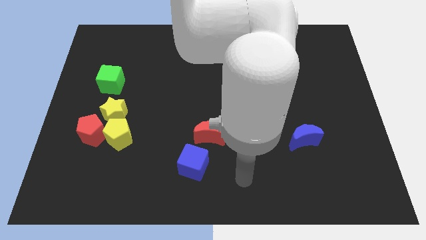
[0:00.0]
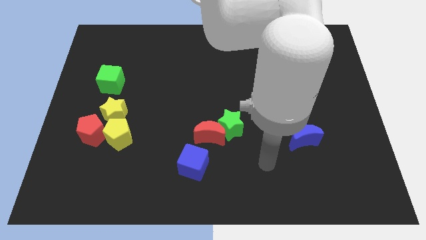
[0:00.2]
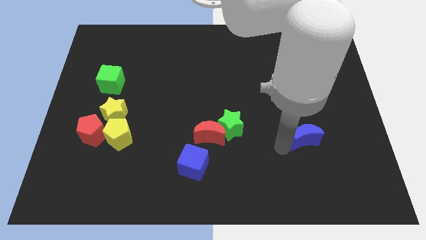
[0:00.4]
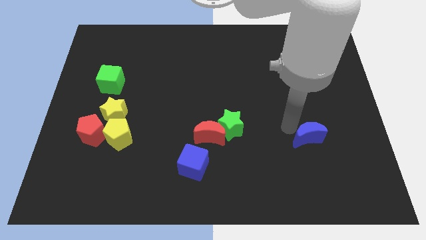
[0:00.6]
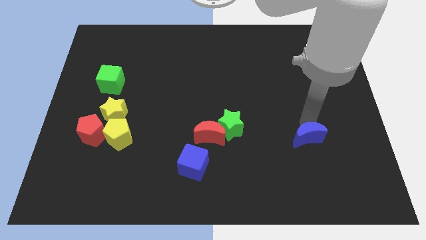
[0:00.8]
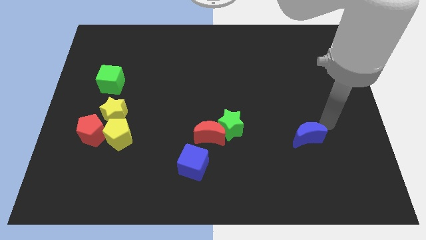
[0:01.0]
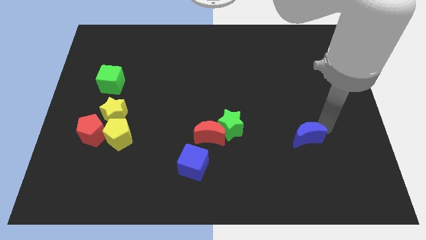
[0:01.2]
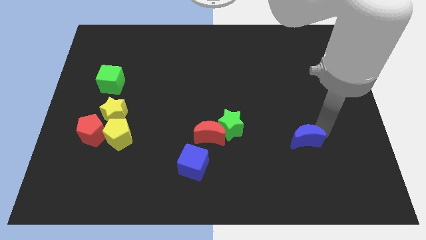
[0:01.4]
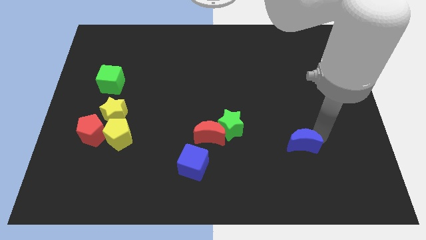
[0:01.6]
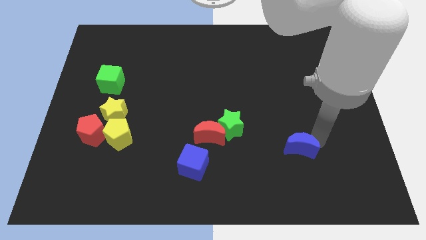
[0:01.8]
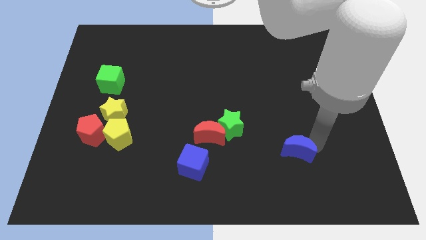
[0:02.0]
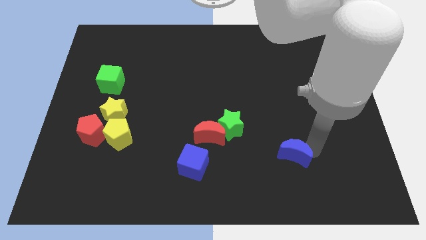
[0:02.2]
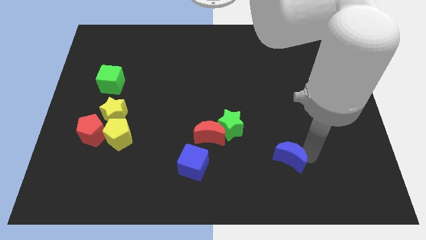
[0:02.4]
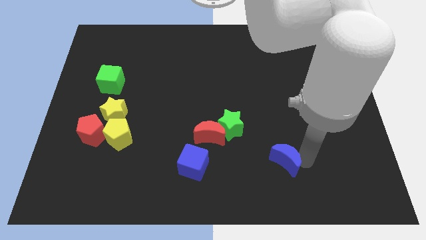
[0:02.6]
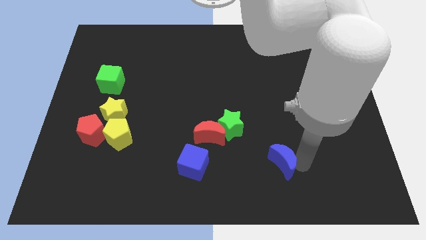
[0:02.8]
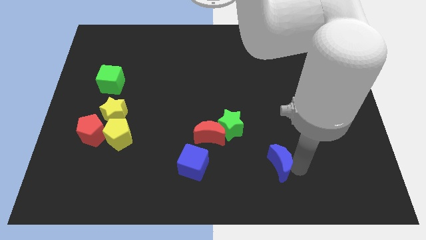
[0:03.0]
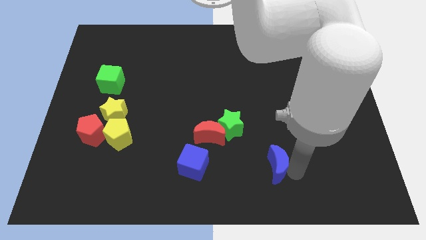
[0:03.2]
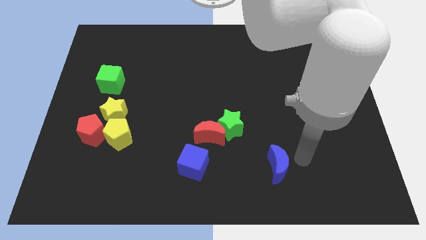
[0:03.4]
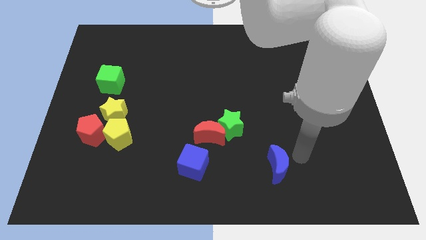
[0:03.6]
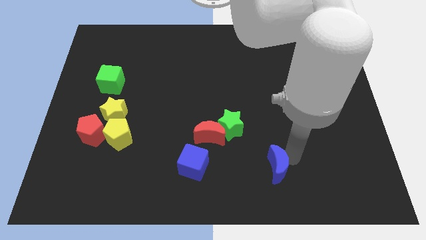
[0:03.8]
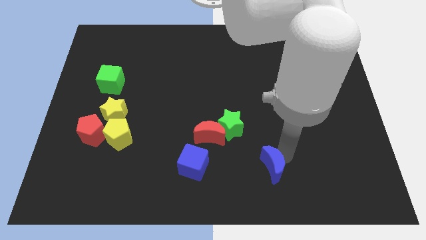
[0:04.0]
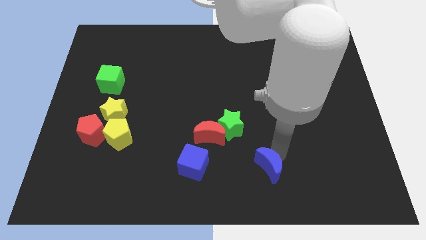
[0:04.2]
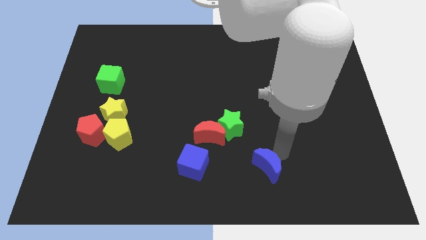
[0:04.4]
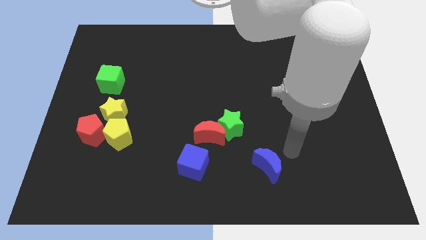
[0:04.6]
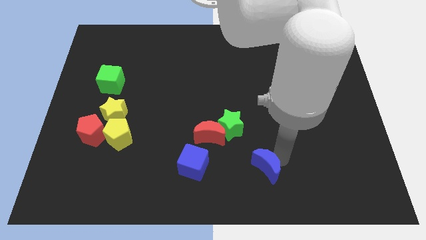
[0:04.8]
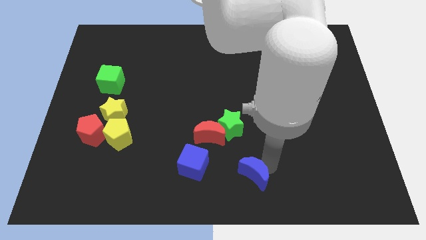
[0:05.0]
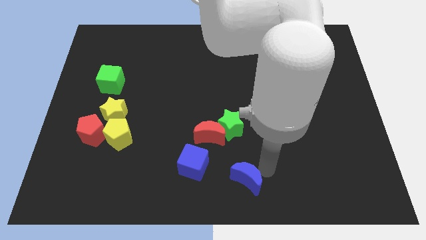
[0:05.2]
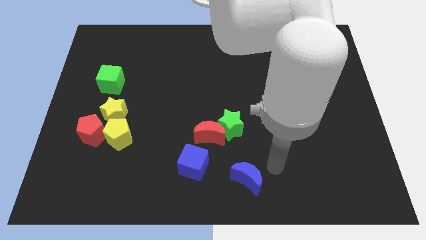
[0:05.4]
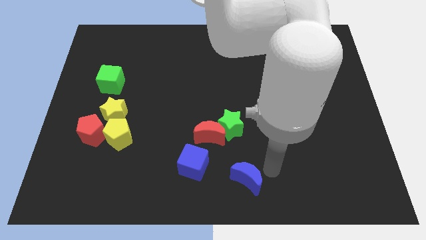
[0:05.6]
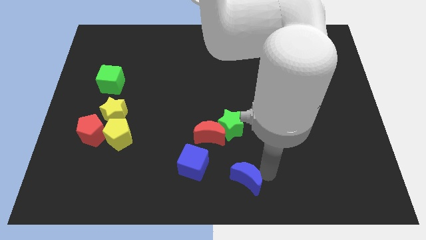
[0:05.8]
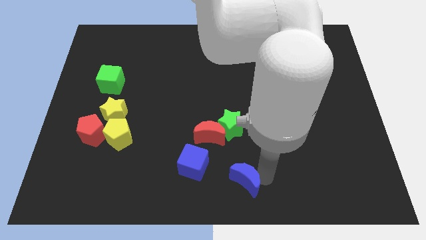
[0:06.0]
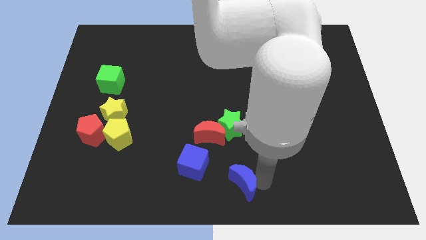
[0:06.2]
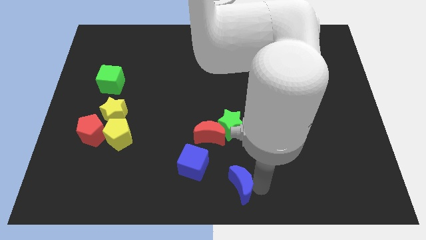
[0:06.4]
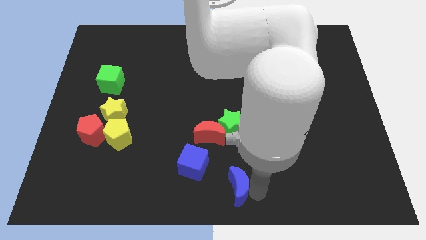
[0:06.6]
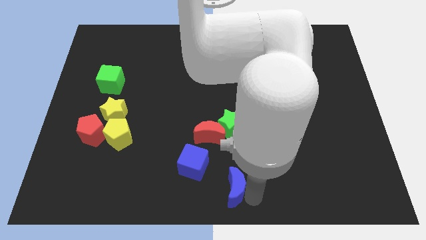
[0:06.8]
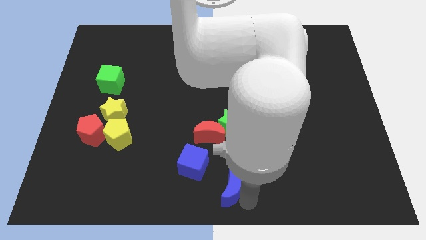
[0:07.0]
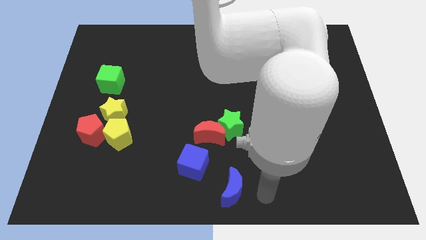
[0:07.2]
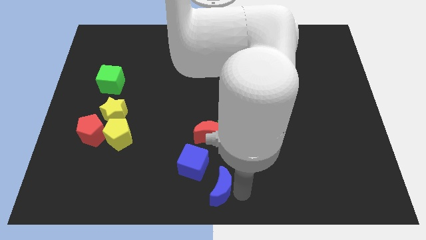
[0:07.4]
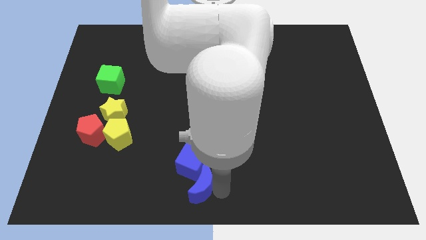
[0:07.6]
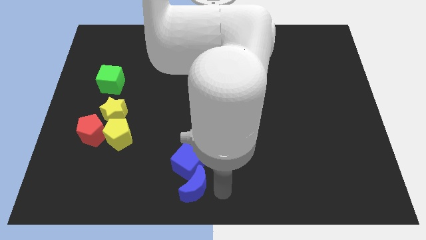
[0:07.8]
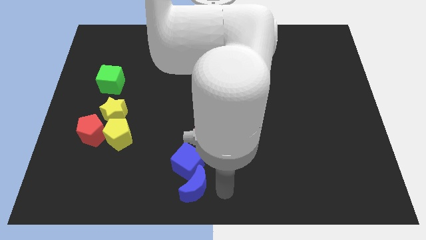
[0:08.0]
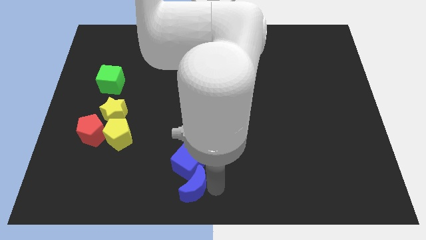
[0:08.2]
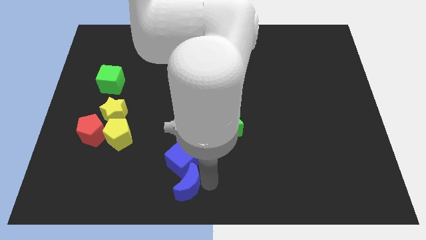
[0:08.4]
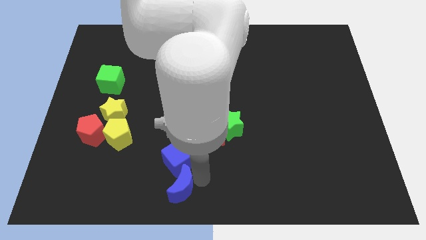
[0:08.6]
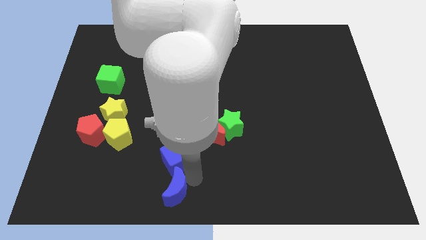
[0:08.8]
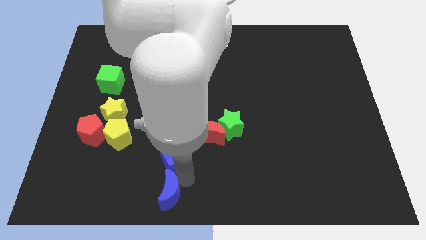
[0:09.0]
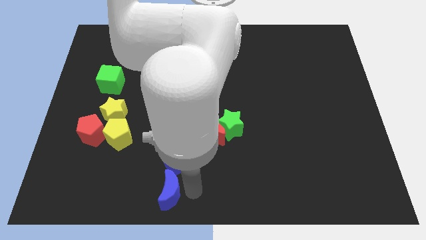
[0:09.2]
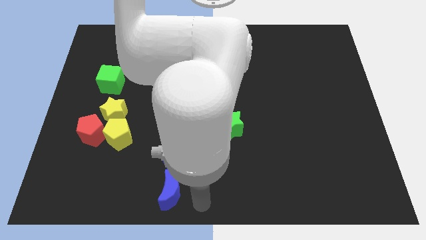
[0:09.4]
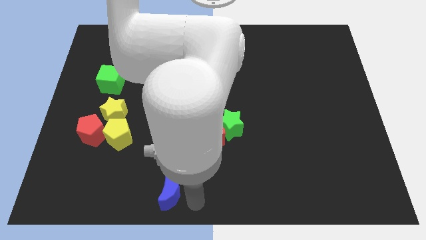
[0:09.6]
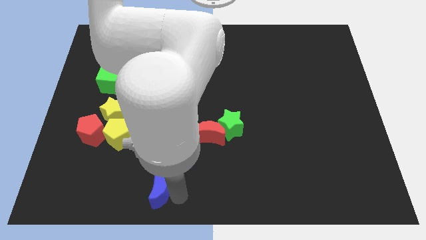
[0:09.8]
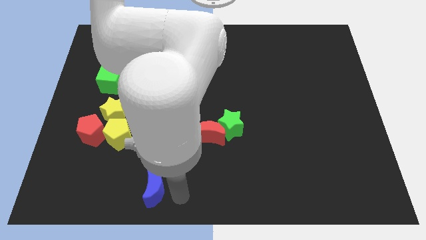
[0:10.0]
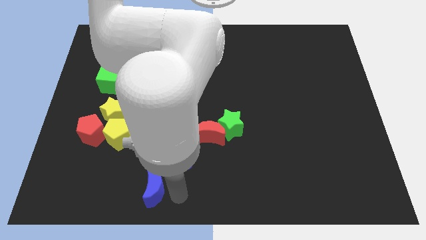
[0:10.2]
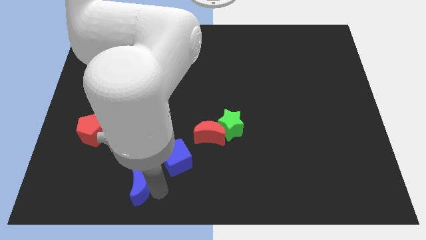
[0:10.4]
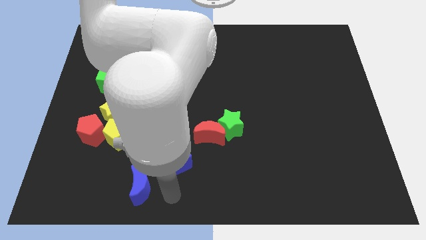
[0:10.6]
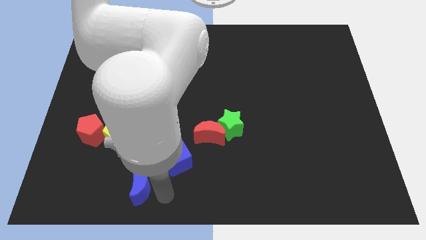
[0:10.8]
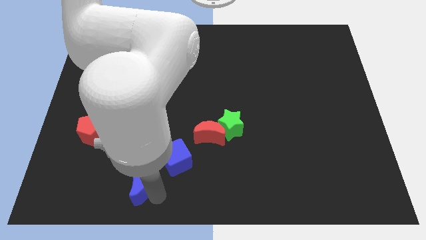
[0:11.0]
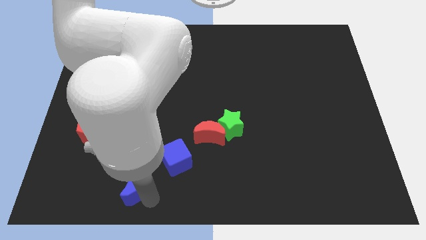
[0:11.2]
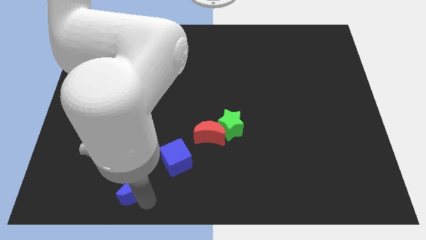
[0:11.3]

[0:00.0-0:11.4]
move the blue moon to the bottom of the yellow pentagon
